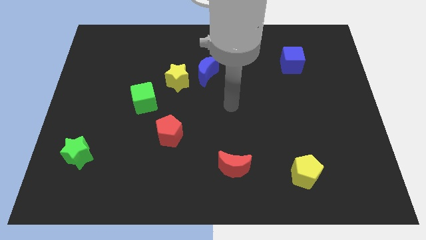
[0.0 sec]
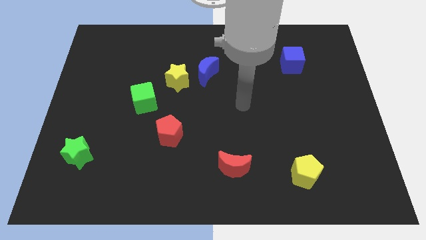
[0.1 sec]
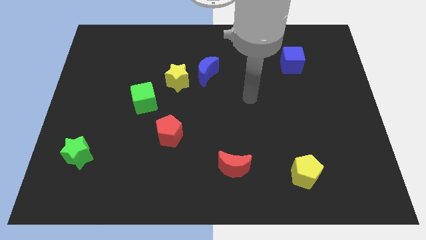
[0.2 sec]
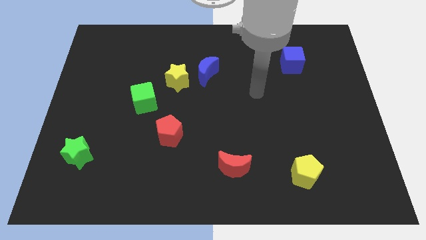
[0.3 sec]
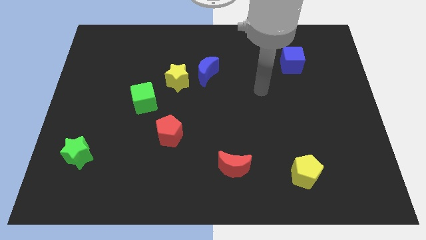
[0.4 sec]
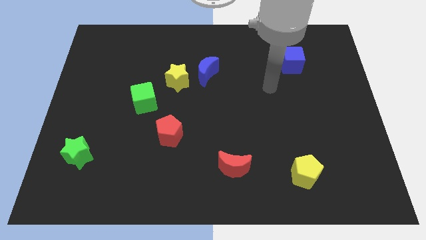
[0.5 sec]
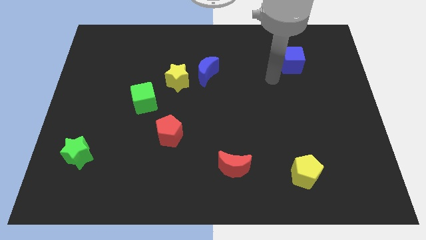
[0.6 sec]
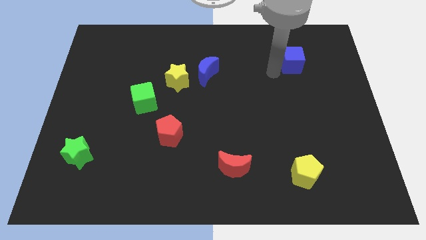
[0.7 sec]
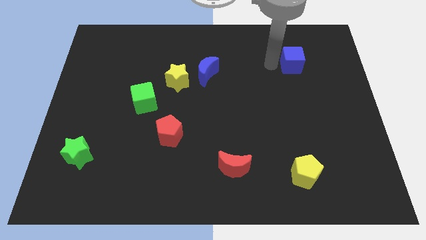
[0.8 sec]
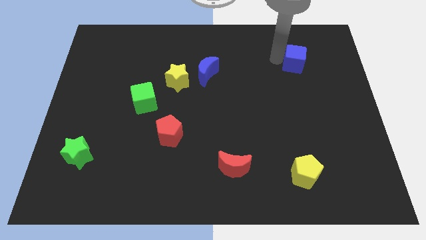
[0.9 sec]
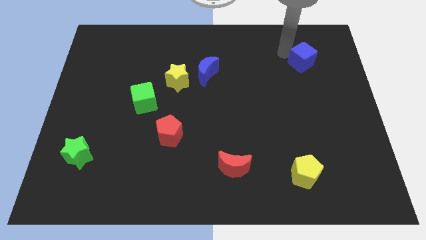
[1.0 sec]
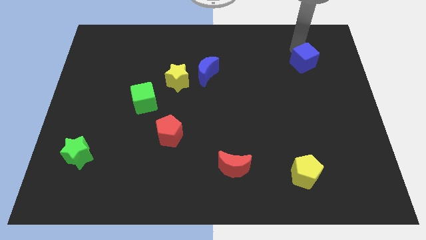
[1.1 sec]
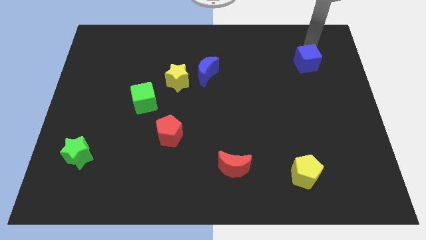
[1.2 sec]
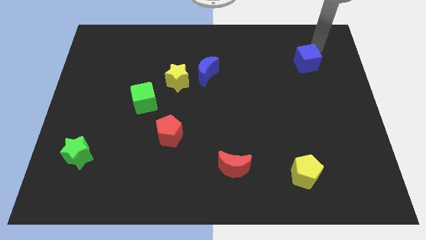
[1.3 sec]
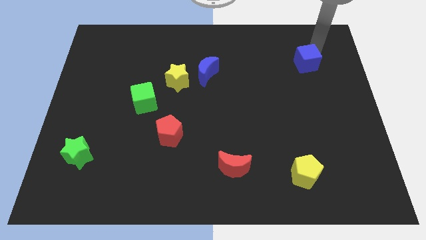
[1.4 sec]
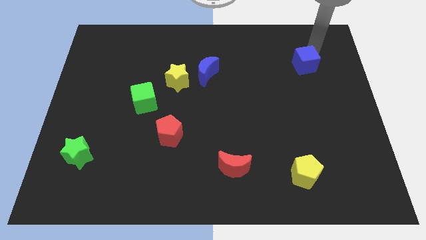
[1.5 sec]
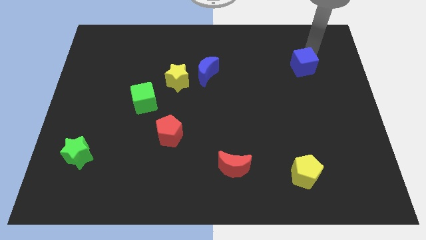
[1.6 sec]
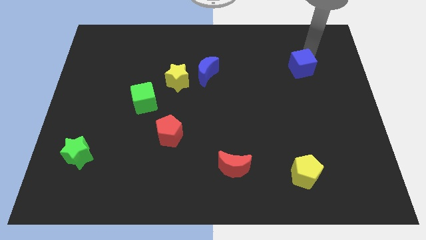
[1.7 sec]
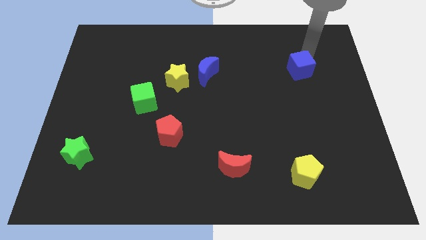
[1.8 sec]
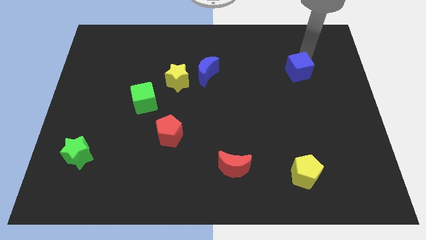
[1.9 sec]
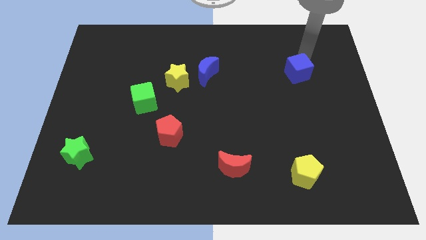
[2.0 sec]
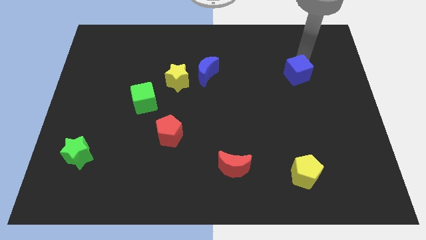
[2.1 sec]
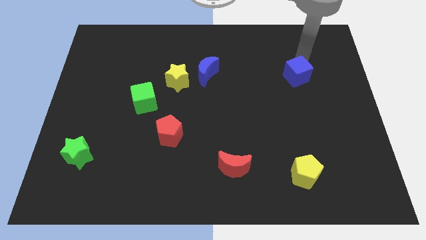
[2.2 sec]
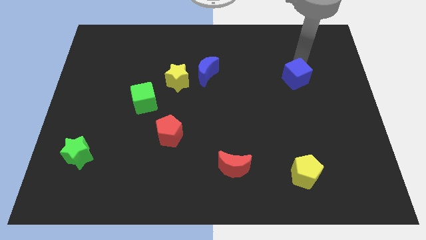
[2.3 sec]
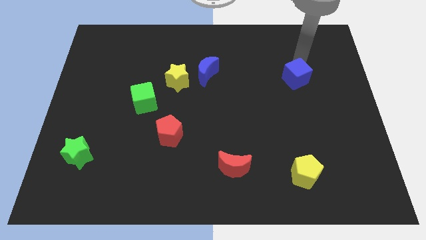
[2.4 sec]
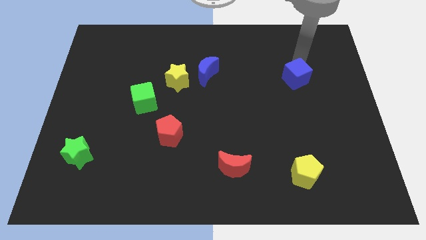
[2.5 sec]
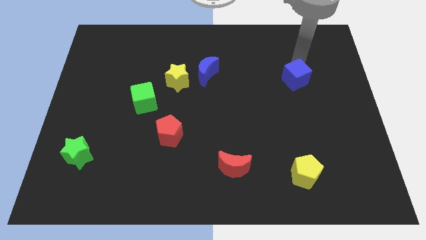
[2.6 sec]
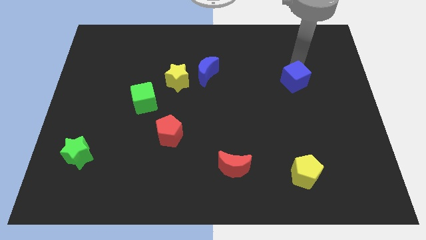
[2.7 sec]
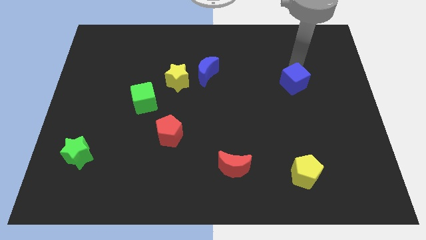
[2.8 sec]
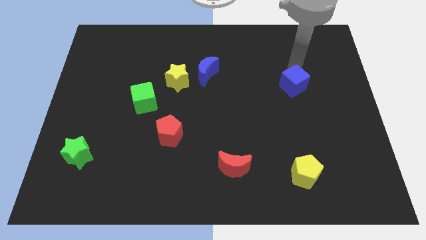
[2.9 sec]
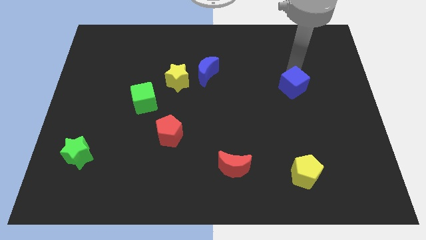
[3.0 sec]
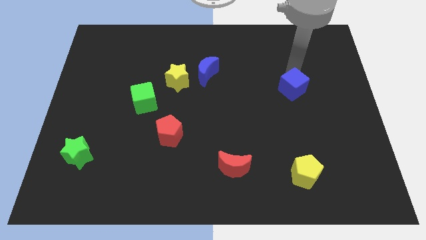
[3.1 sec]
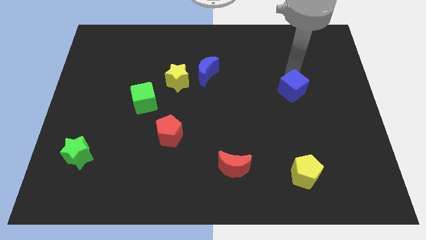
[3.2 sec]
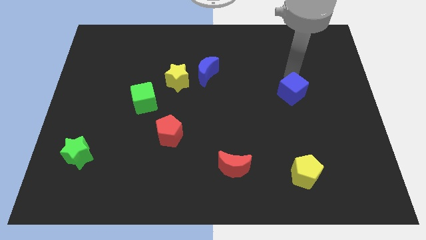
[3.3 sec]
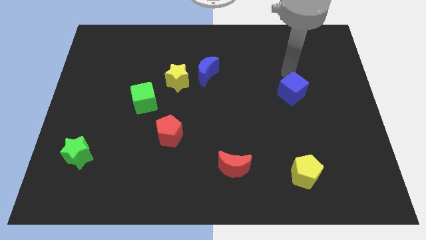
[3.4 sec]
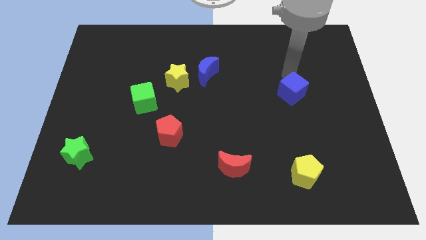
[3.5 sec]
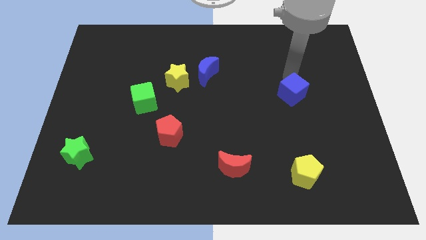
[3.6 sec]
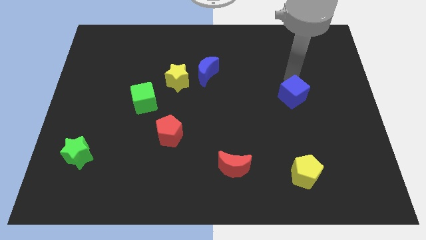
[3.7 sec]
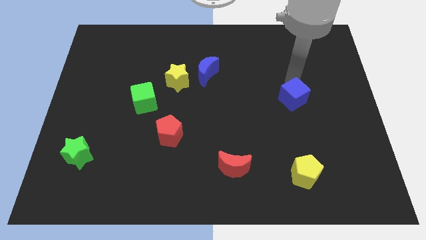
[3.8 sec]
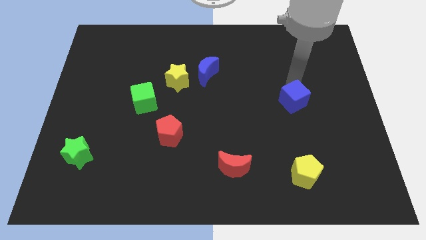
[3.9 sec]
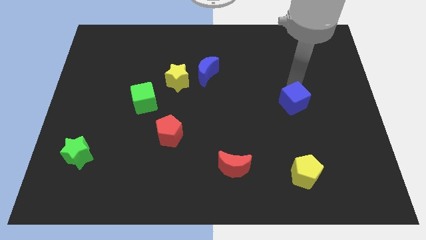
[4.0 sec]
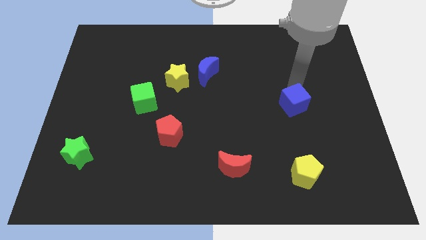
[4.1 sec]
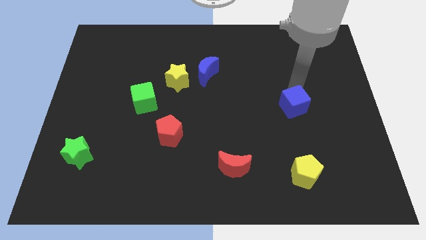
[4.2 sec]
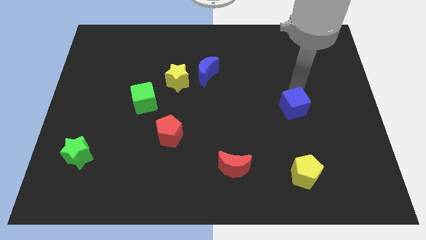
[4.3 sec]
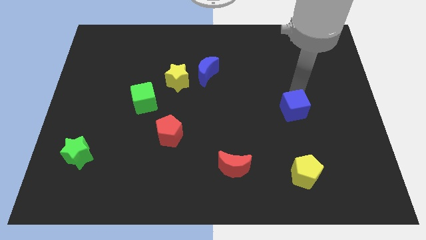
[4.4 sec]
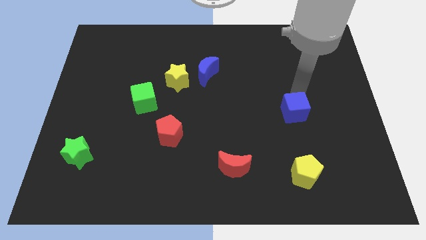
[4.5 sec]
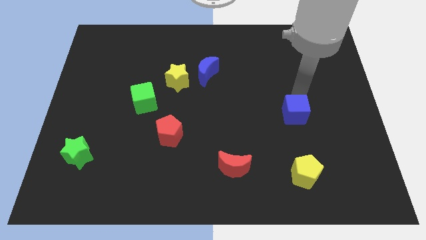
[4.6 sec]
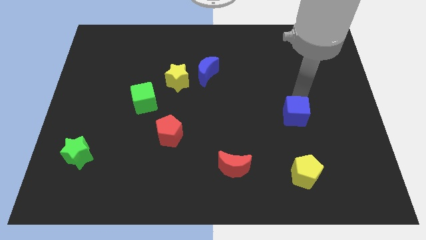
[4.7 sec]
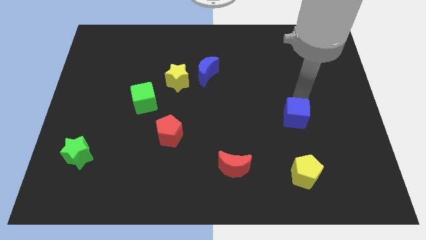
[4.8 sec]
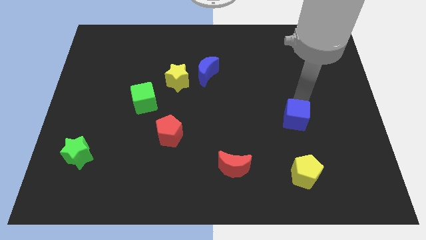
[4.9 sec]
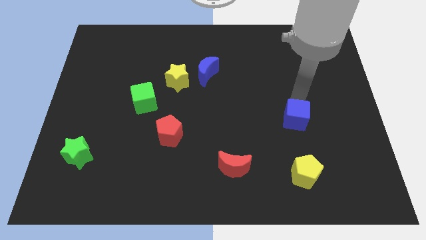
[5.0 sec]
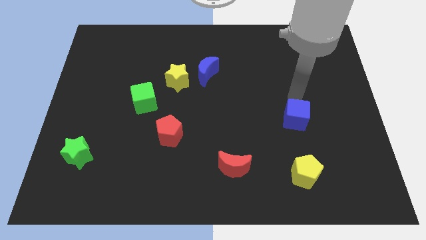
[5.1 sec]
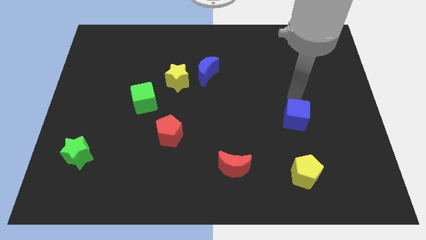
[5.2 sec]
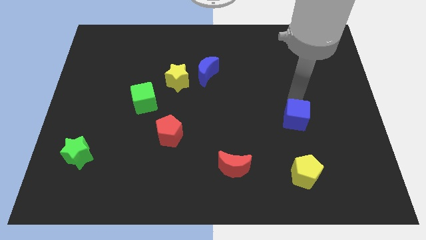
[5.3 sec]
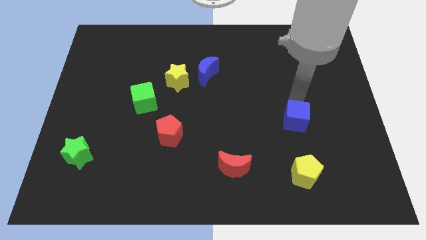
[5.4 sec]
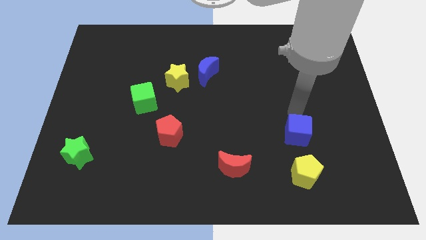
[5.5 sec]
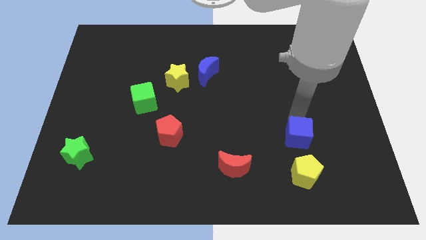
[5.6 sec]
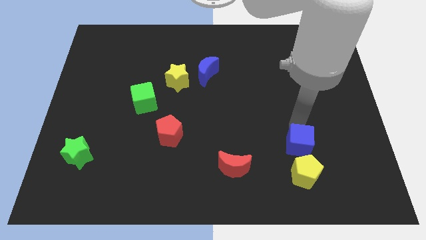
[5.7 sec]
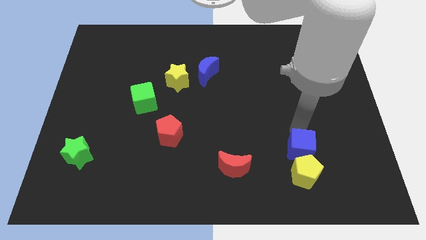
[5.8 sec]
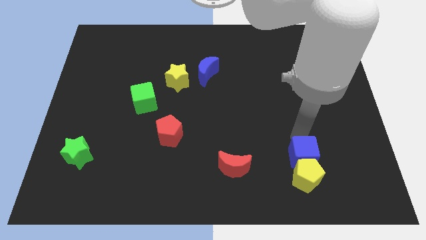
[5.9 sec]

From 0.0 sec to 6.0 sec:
move the blue cube to the yellow pentagon

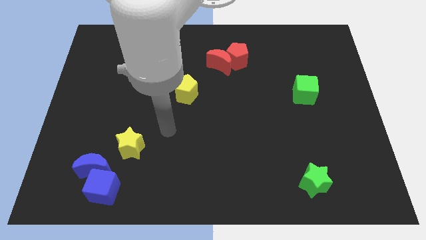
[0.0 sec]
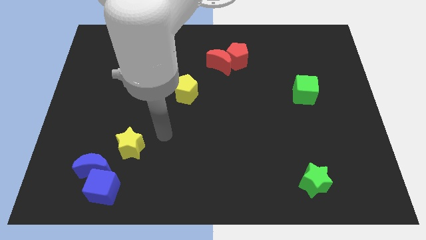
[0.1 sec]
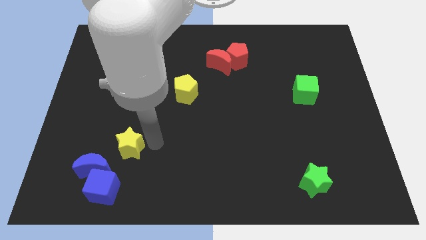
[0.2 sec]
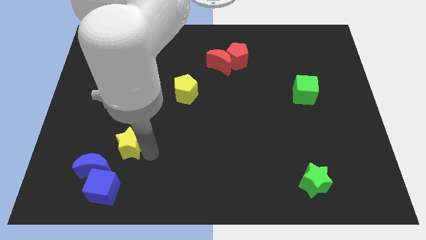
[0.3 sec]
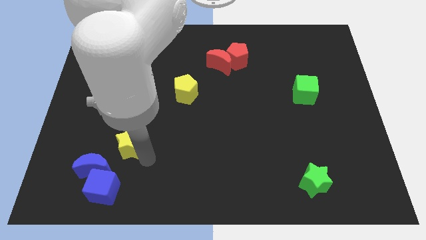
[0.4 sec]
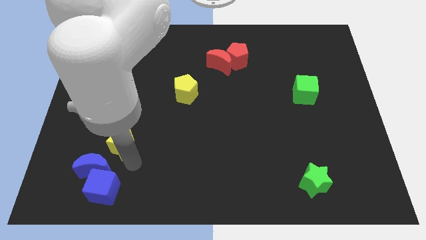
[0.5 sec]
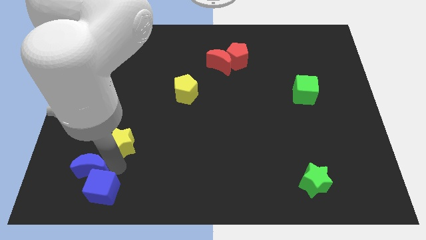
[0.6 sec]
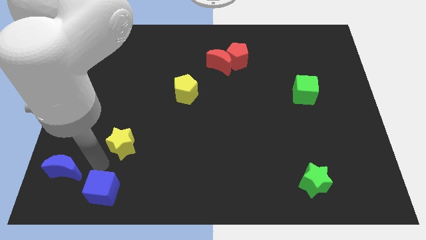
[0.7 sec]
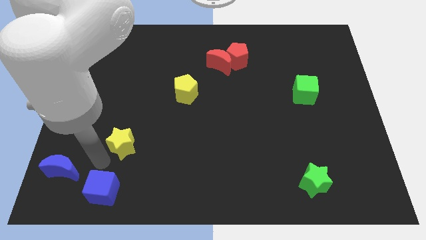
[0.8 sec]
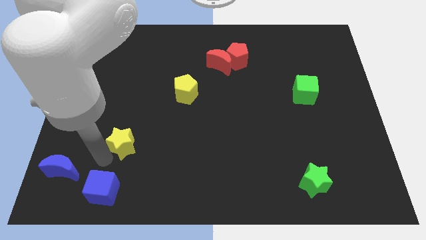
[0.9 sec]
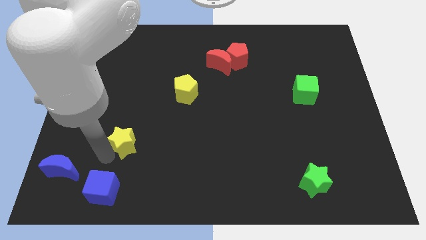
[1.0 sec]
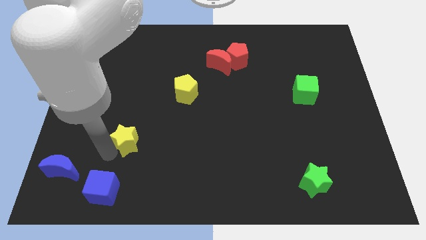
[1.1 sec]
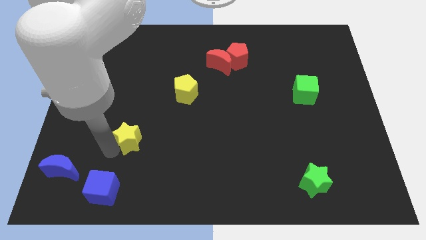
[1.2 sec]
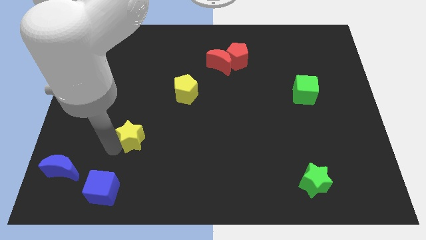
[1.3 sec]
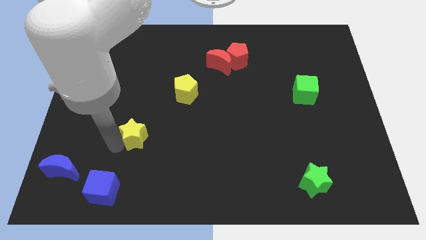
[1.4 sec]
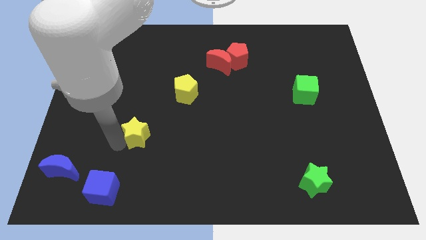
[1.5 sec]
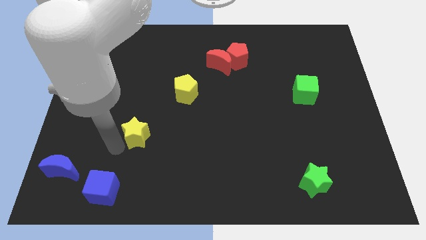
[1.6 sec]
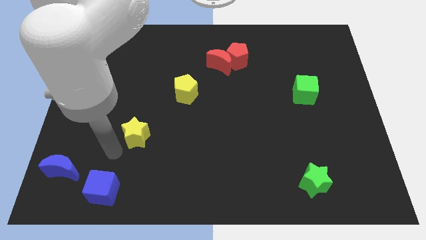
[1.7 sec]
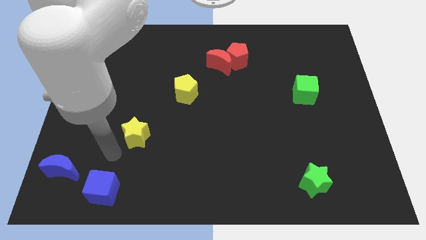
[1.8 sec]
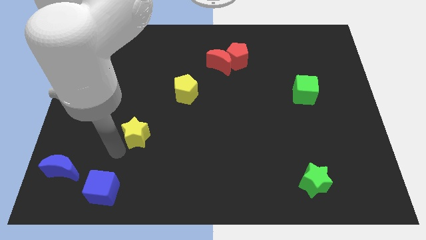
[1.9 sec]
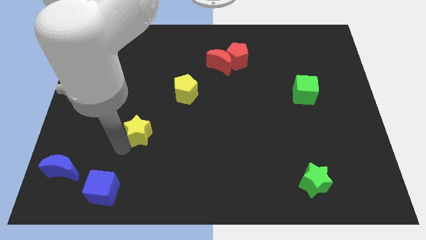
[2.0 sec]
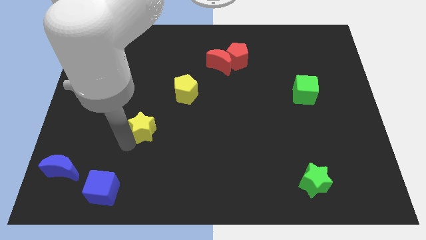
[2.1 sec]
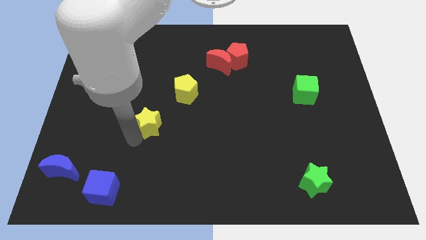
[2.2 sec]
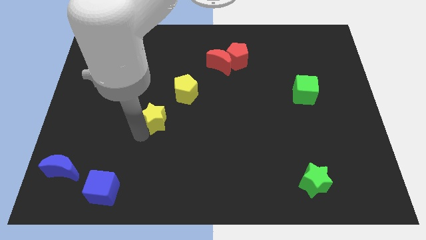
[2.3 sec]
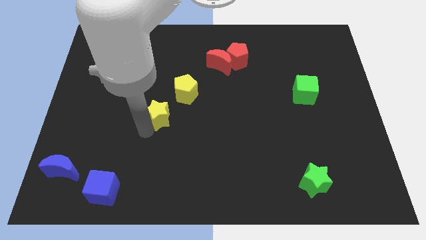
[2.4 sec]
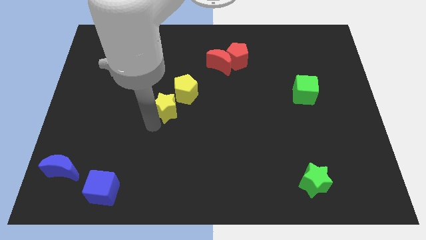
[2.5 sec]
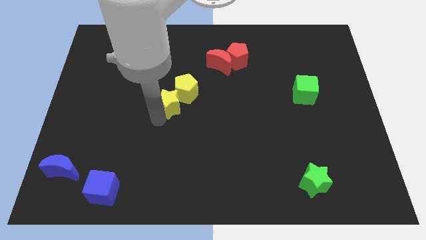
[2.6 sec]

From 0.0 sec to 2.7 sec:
slide the yellow star close to the yellow pentagon
